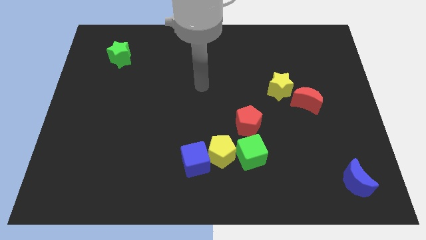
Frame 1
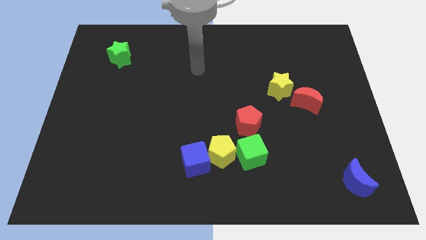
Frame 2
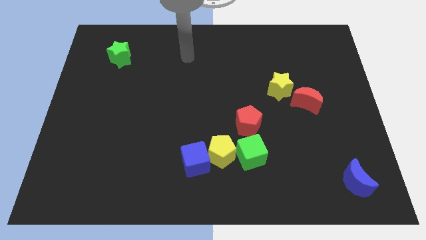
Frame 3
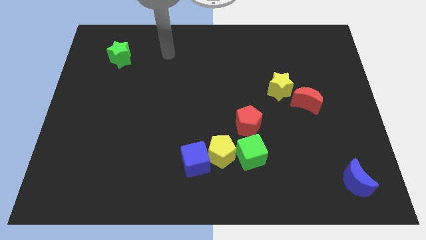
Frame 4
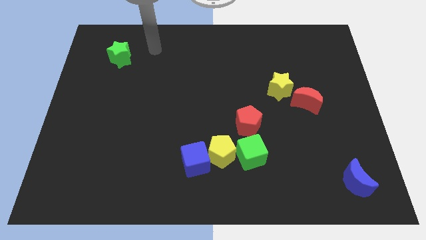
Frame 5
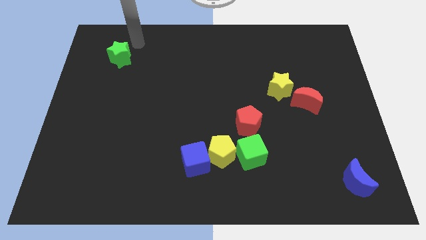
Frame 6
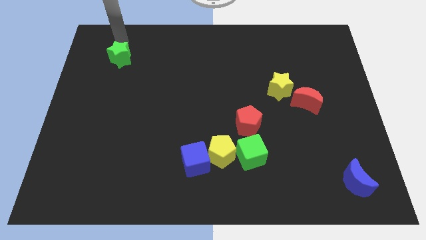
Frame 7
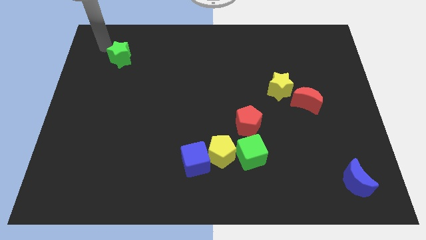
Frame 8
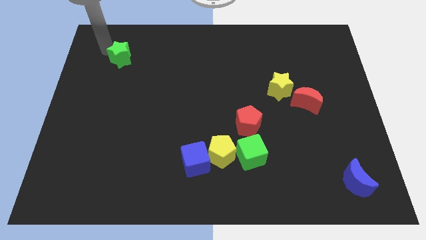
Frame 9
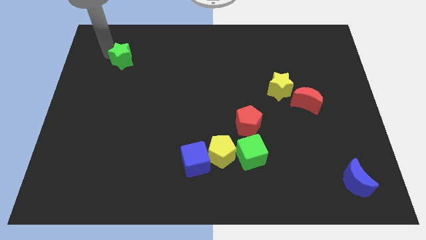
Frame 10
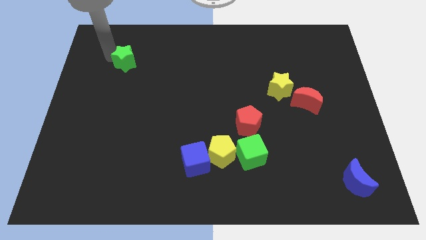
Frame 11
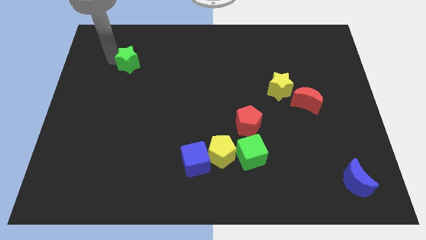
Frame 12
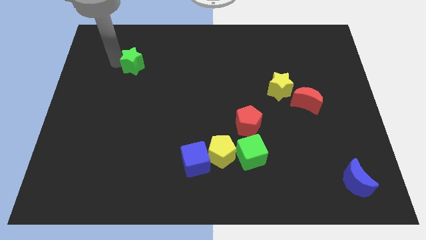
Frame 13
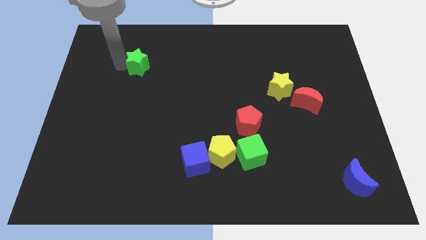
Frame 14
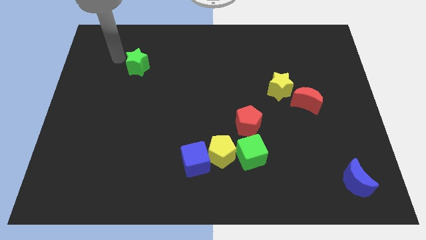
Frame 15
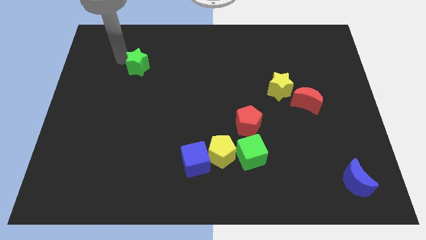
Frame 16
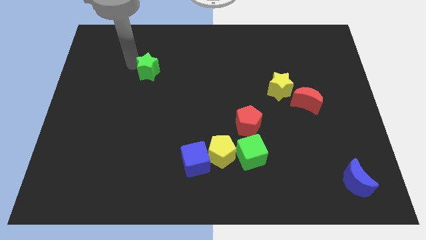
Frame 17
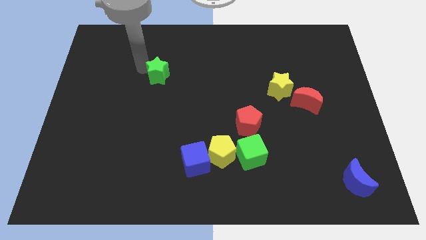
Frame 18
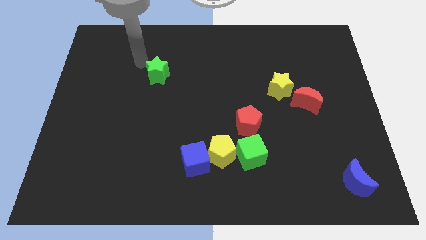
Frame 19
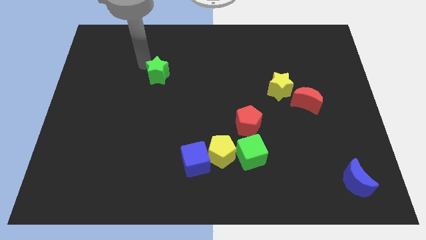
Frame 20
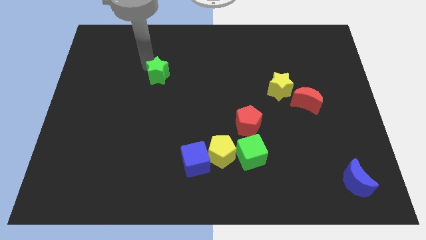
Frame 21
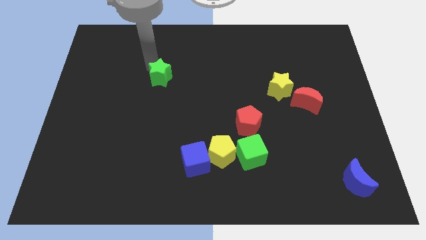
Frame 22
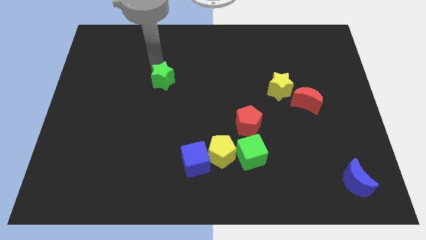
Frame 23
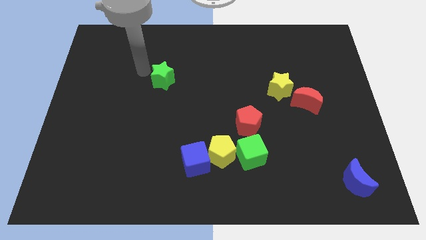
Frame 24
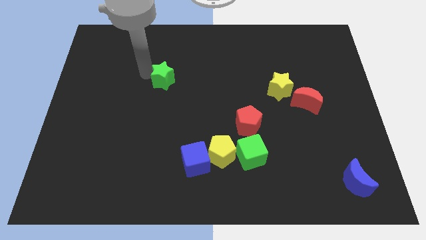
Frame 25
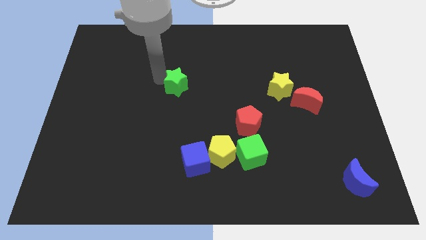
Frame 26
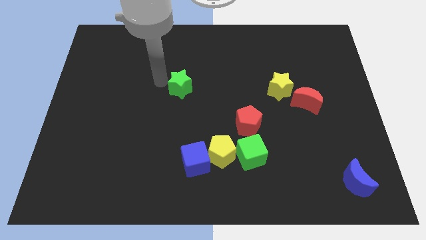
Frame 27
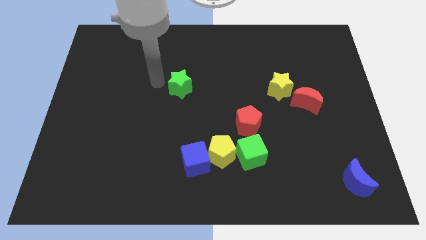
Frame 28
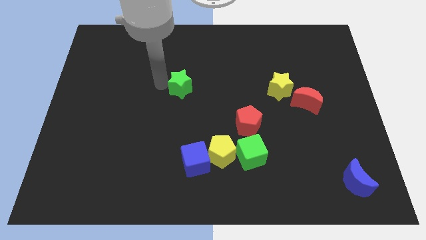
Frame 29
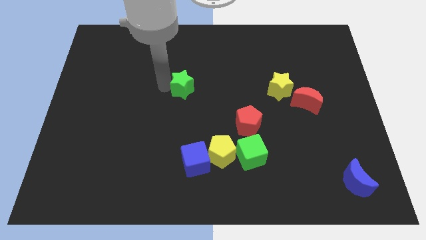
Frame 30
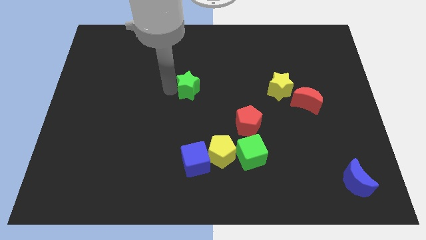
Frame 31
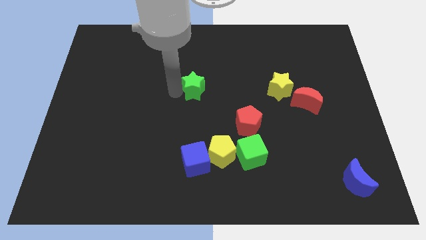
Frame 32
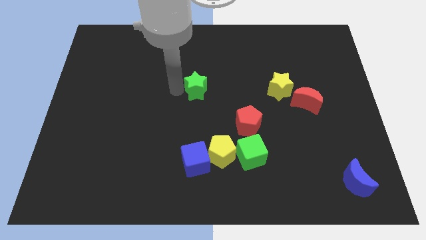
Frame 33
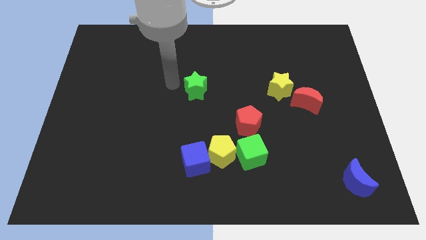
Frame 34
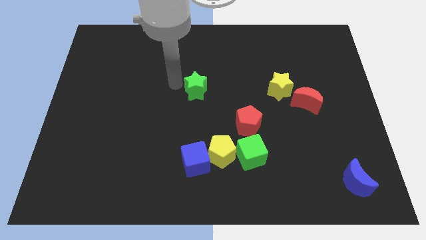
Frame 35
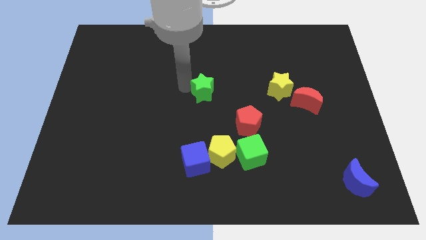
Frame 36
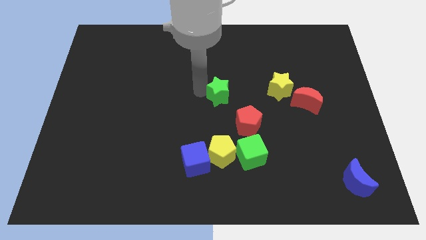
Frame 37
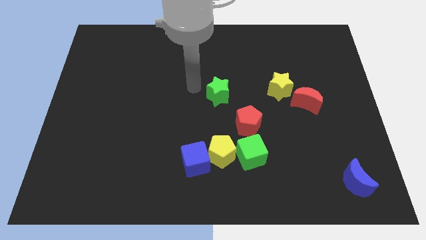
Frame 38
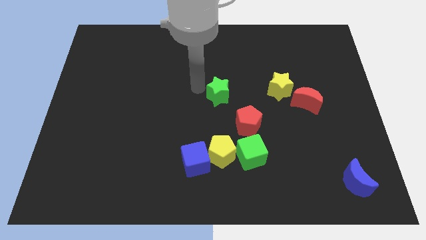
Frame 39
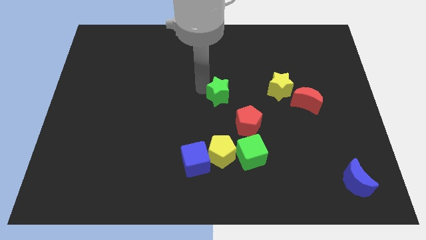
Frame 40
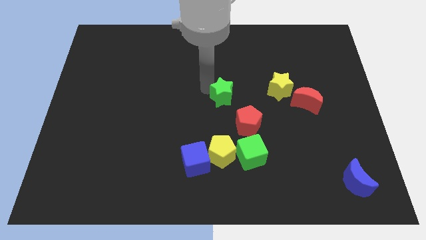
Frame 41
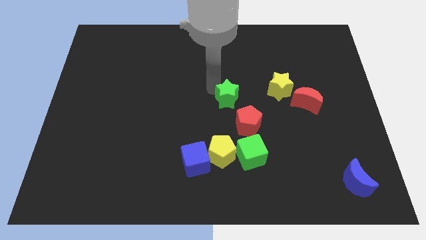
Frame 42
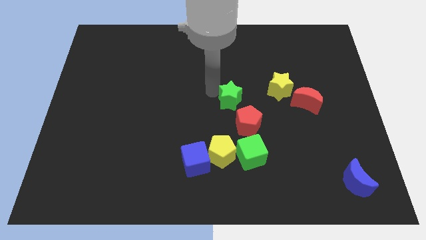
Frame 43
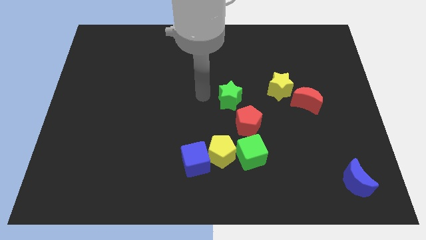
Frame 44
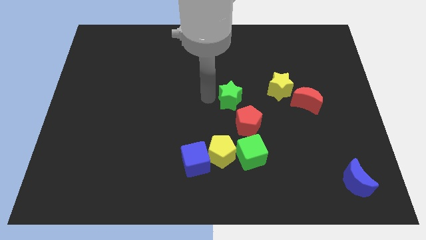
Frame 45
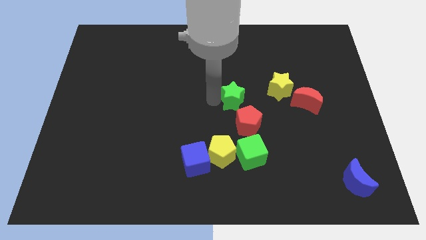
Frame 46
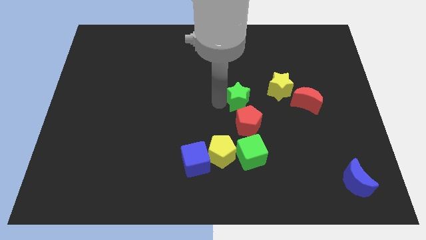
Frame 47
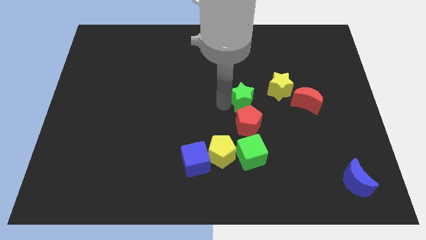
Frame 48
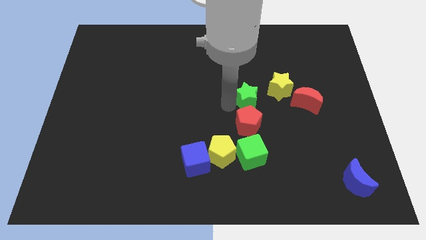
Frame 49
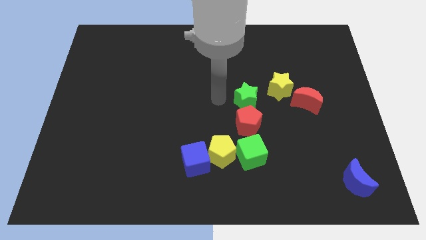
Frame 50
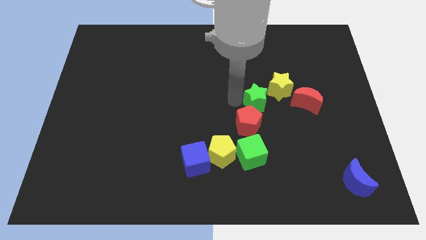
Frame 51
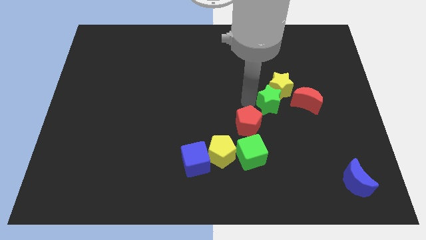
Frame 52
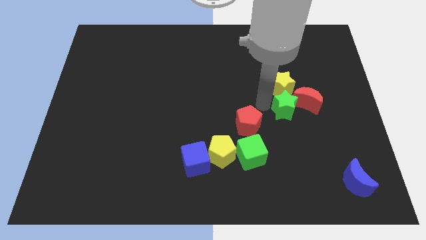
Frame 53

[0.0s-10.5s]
move the green star to the red moon

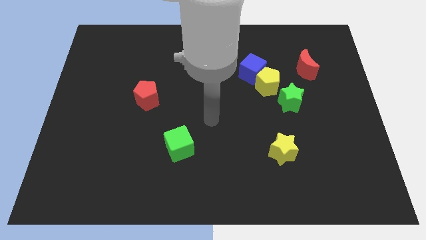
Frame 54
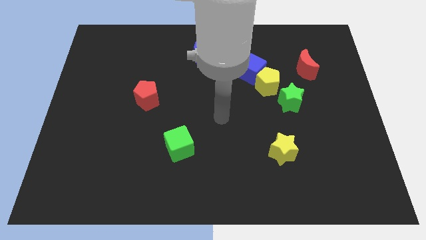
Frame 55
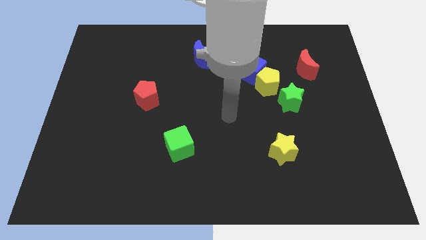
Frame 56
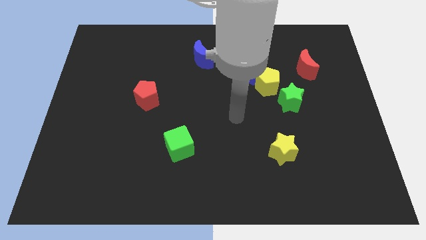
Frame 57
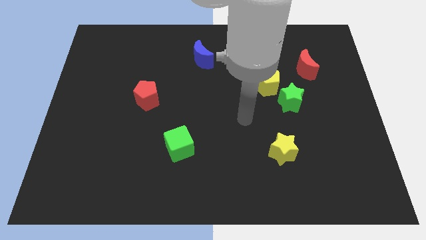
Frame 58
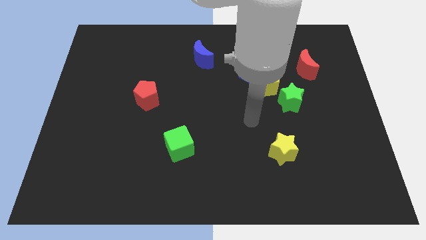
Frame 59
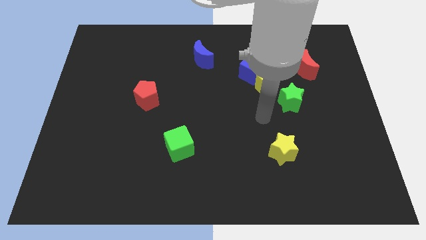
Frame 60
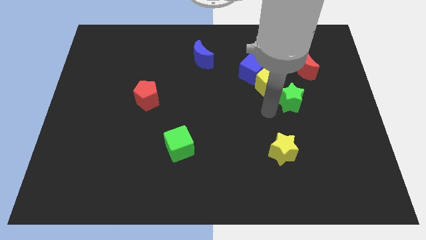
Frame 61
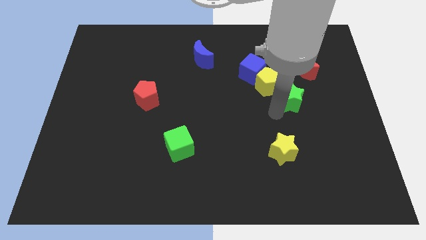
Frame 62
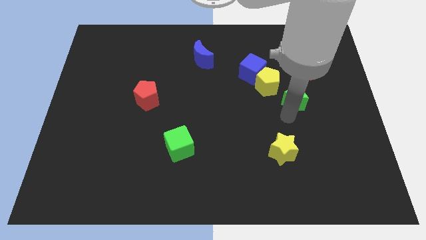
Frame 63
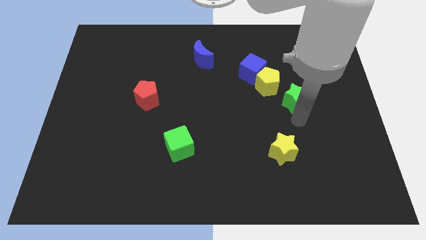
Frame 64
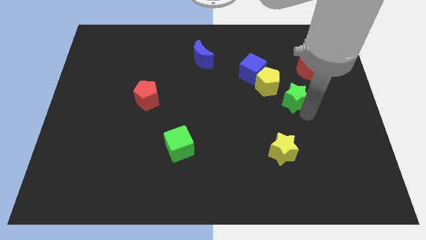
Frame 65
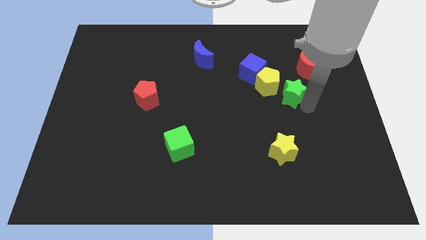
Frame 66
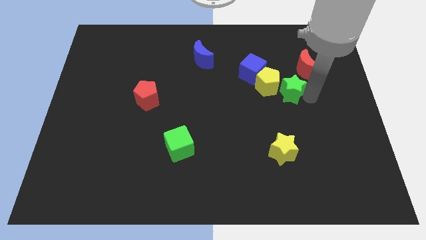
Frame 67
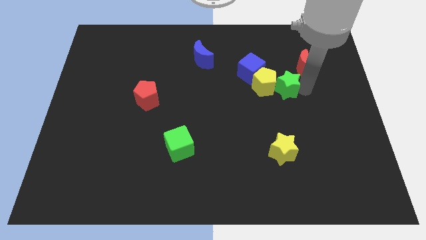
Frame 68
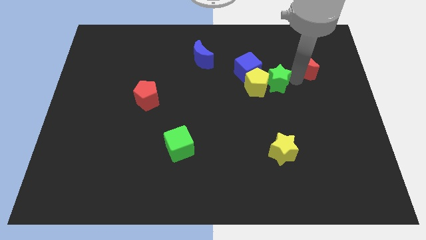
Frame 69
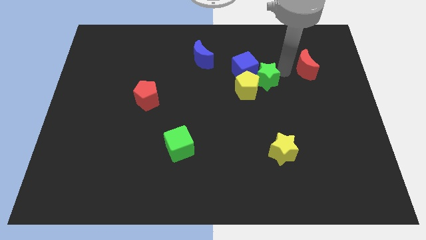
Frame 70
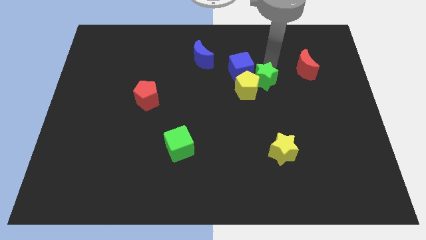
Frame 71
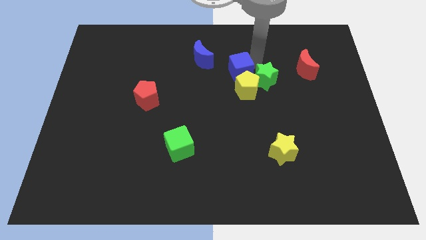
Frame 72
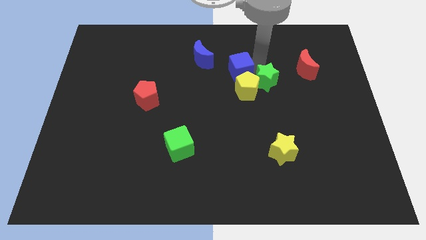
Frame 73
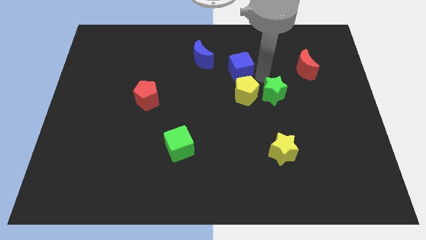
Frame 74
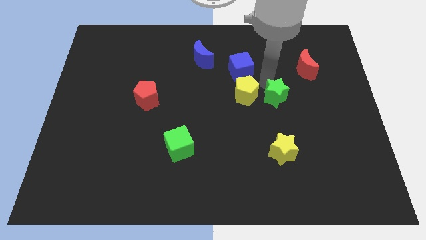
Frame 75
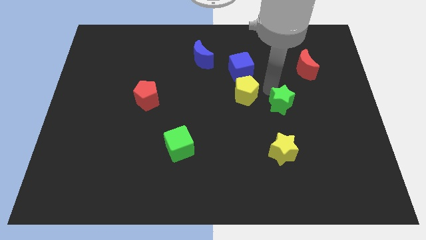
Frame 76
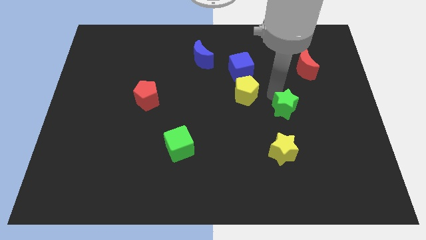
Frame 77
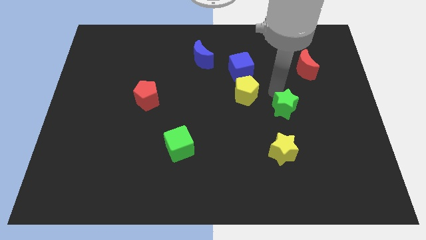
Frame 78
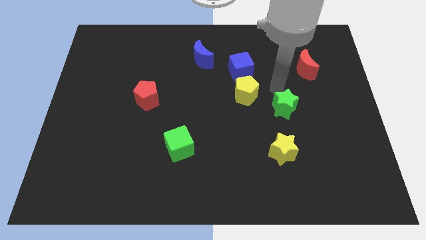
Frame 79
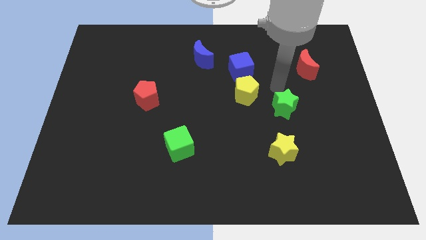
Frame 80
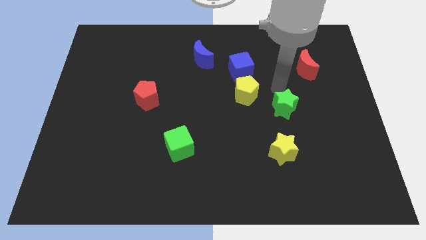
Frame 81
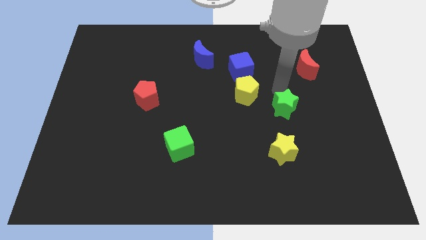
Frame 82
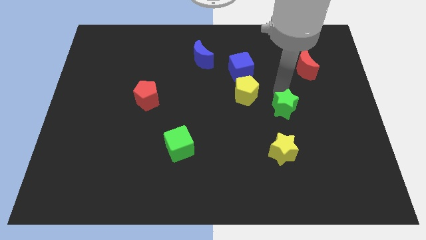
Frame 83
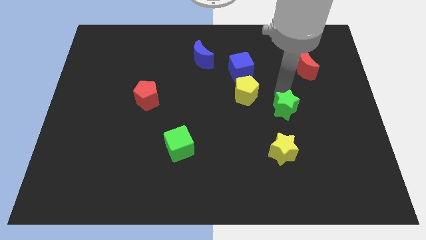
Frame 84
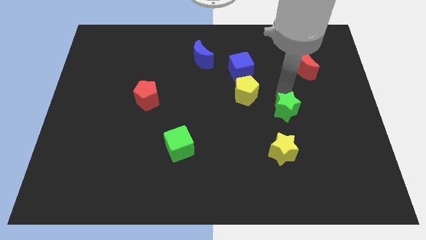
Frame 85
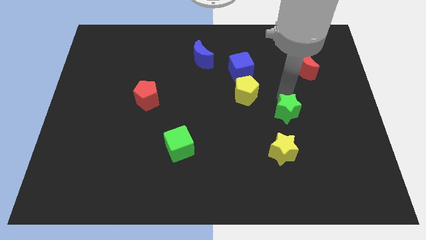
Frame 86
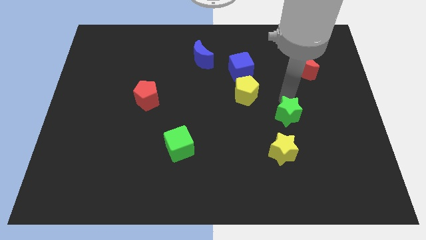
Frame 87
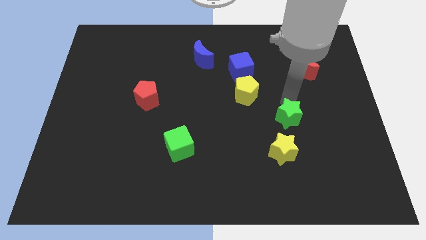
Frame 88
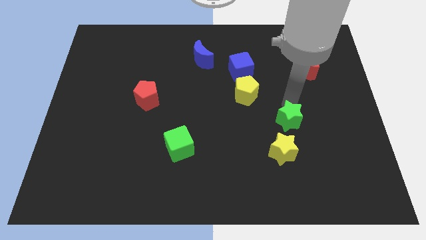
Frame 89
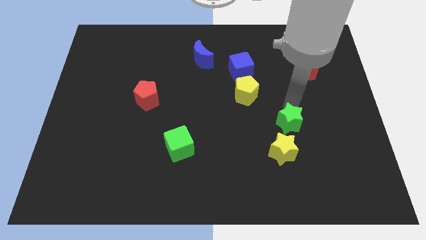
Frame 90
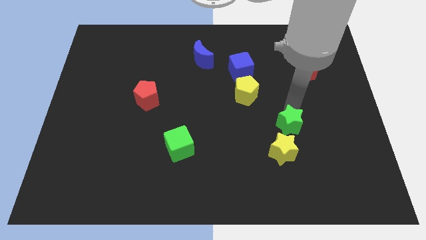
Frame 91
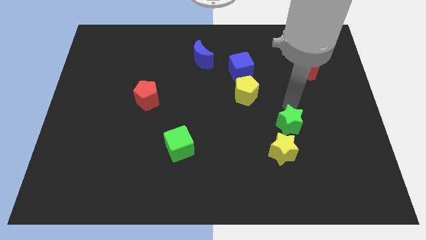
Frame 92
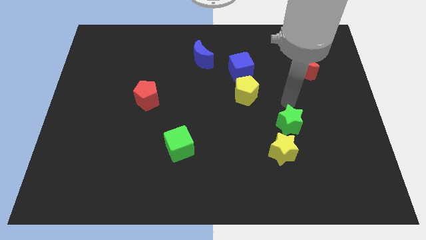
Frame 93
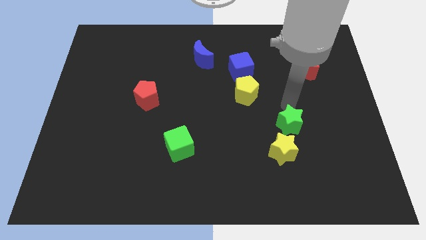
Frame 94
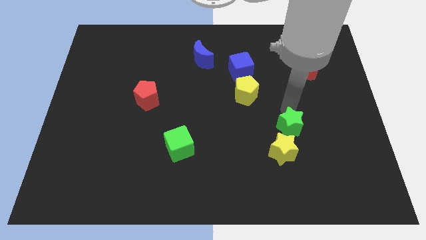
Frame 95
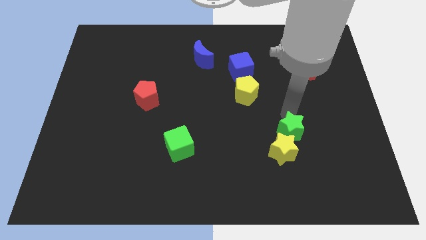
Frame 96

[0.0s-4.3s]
push the green star next to the yellow star
